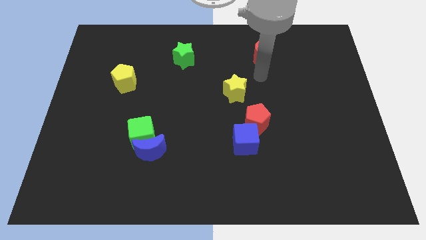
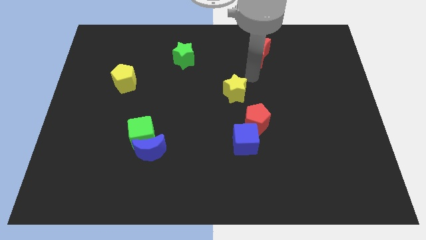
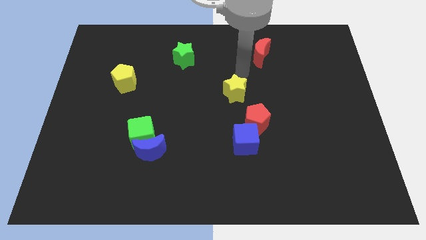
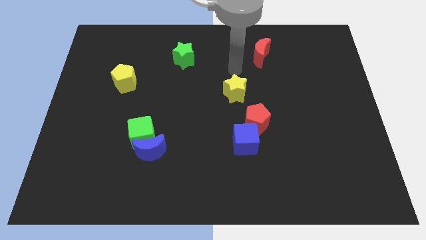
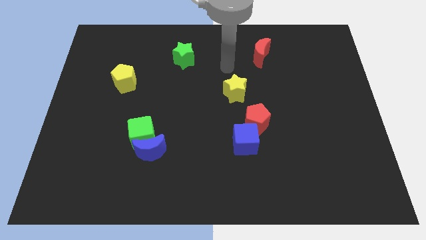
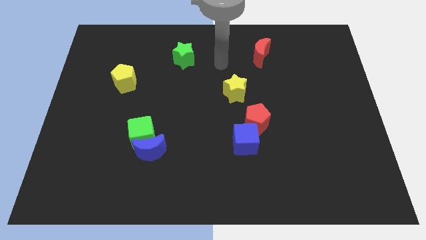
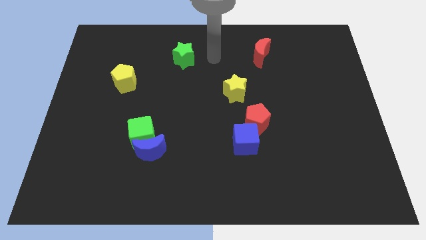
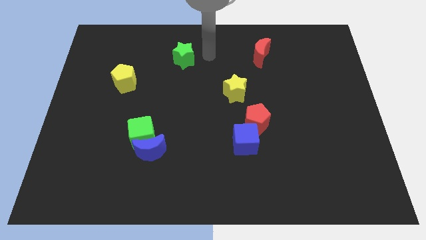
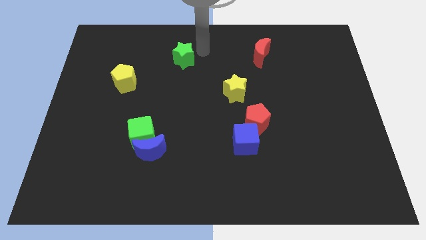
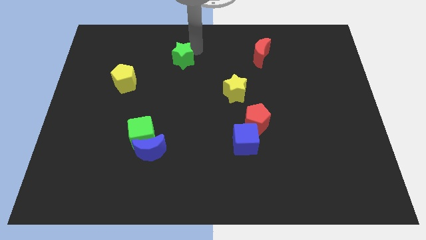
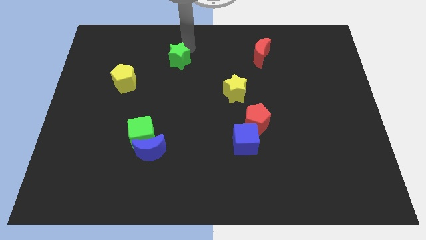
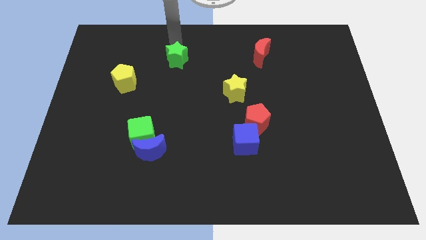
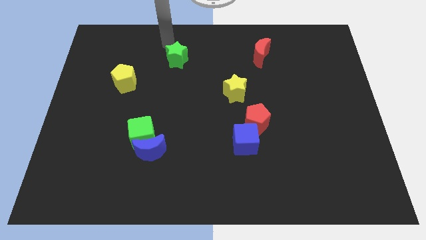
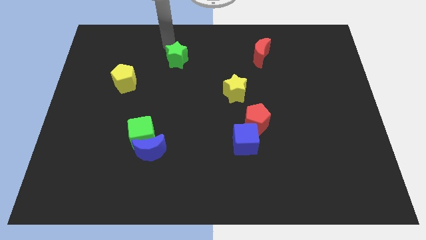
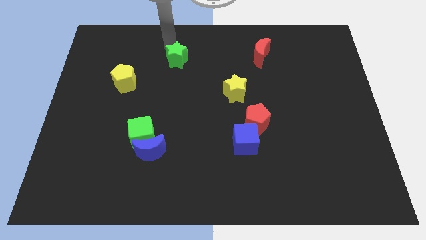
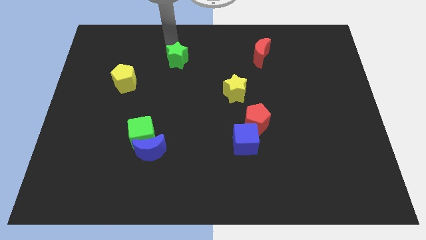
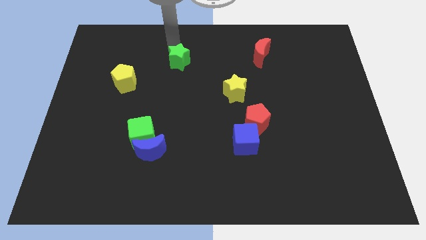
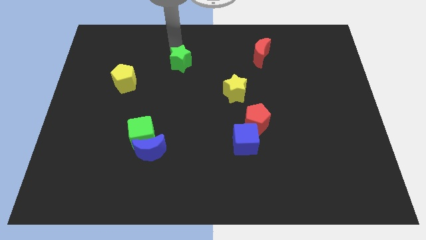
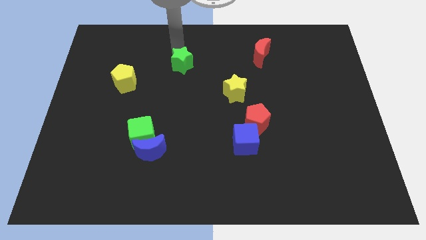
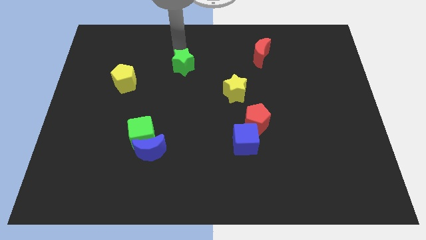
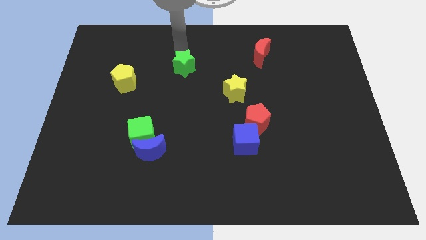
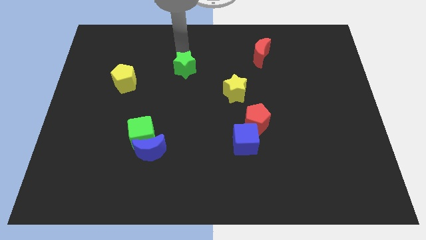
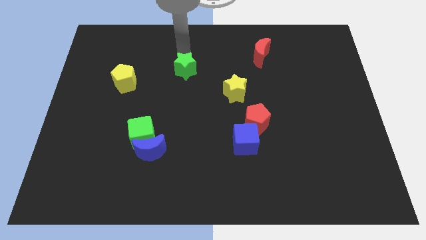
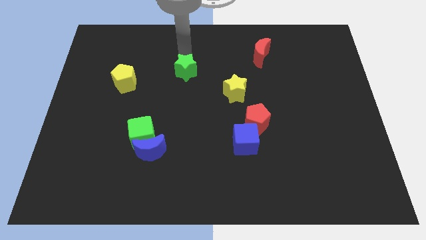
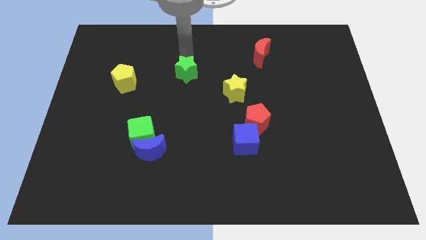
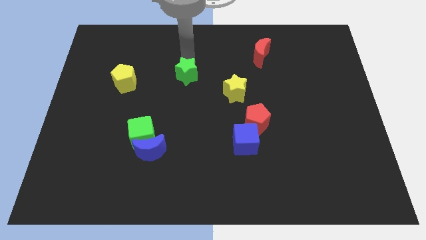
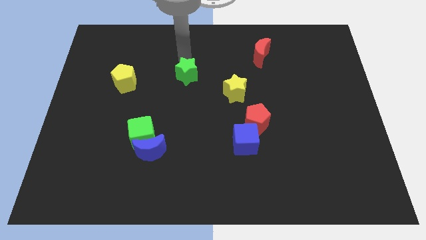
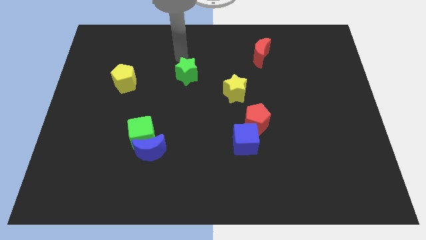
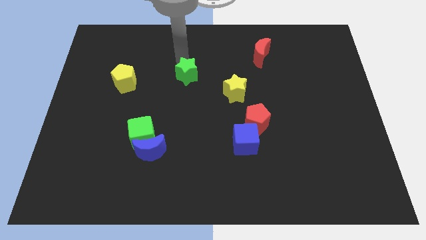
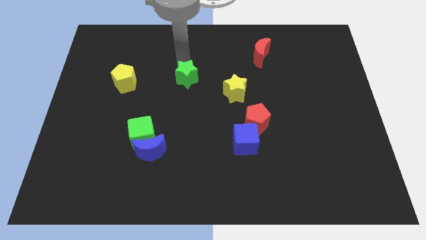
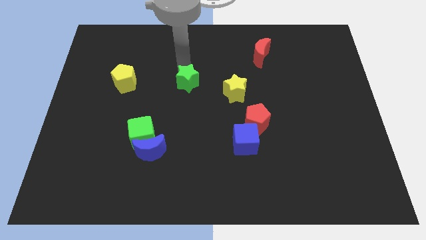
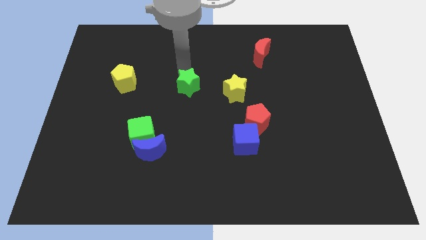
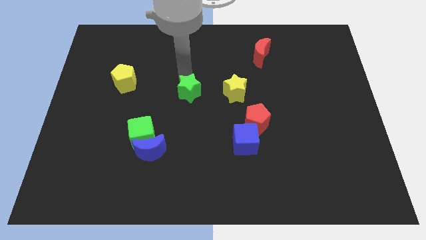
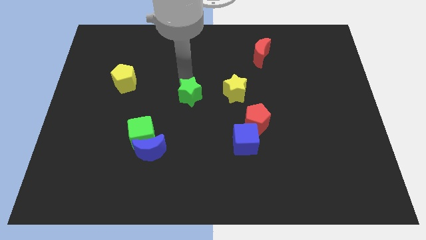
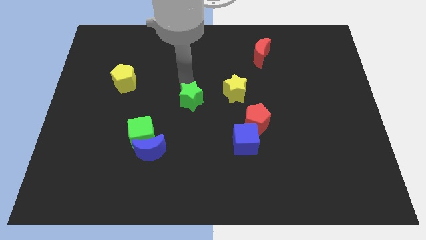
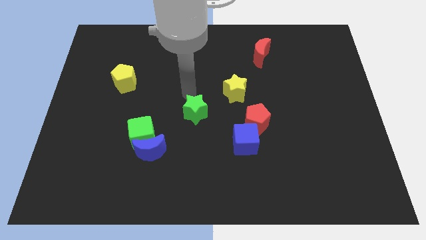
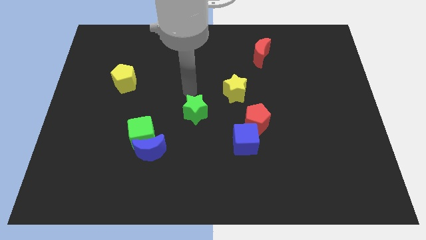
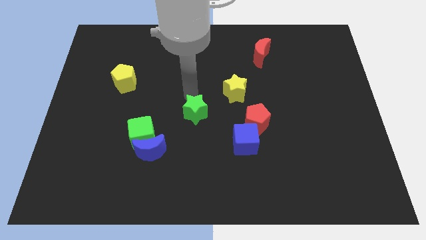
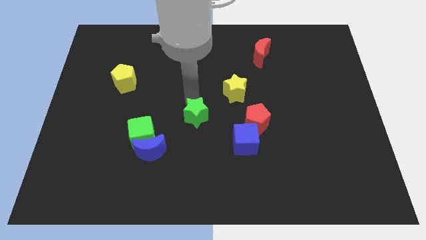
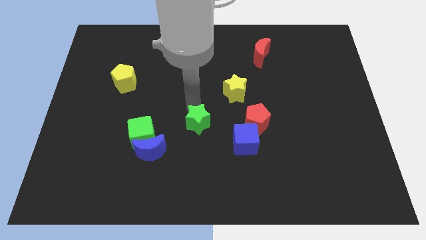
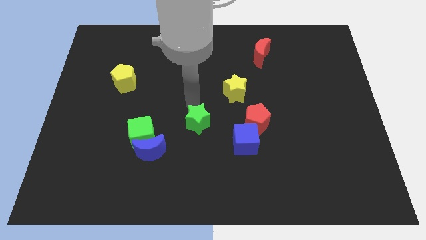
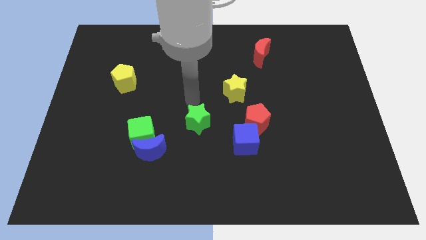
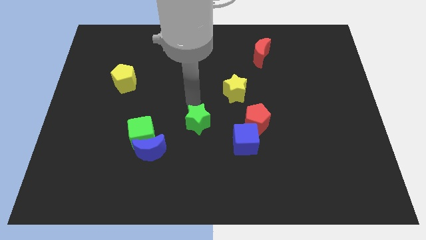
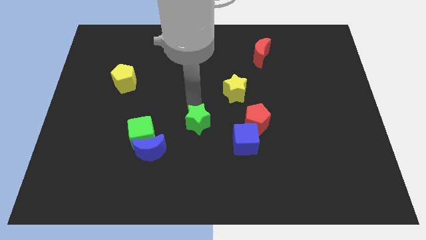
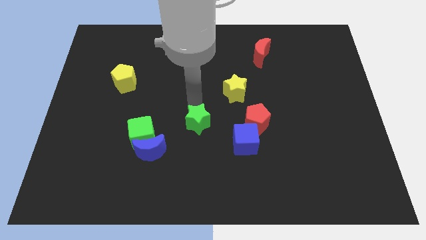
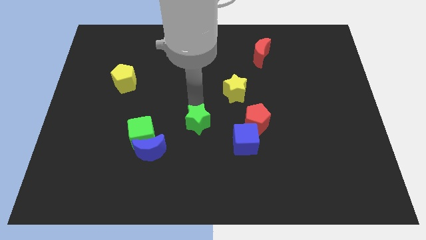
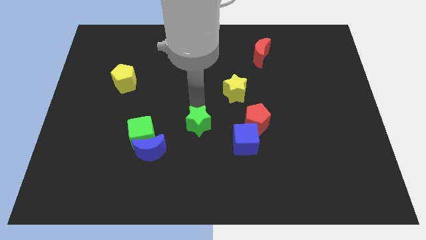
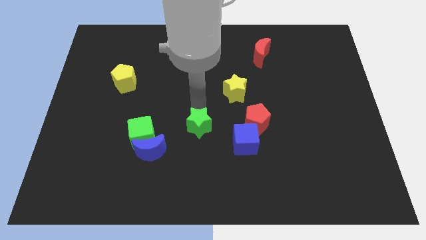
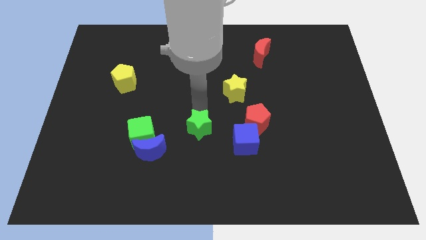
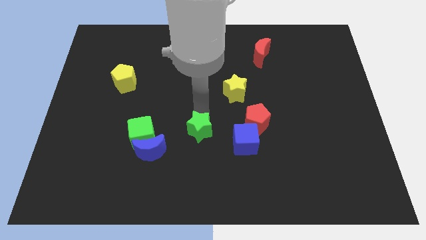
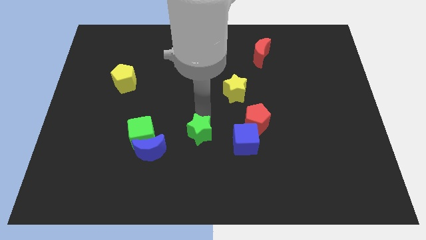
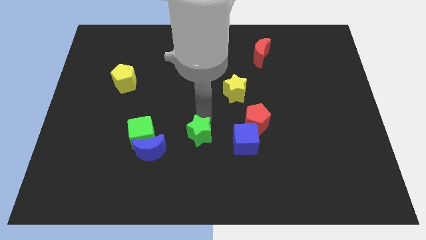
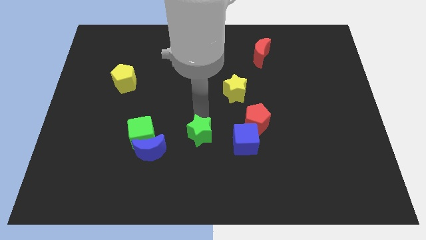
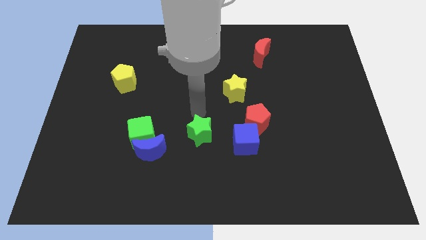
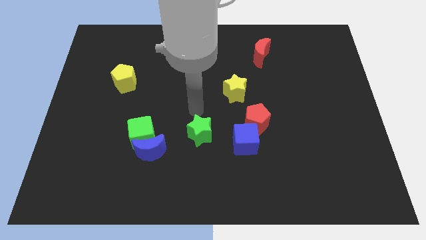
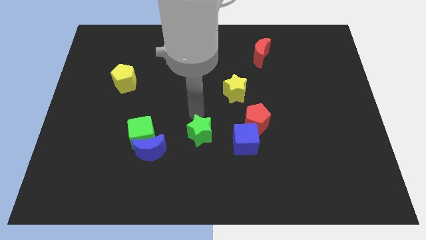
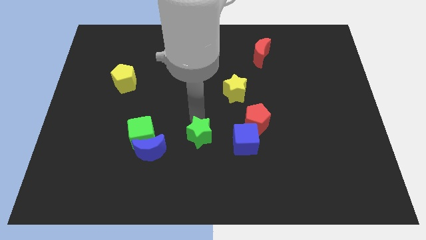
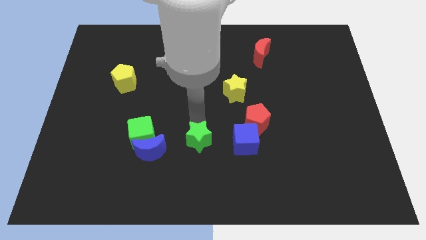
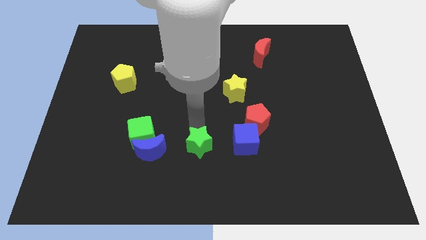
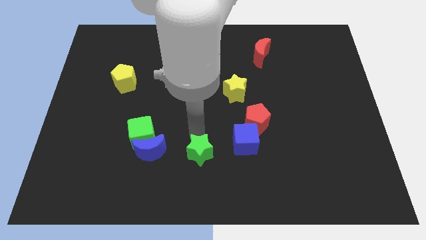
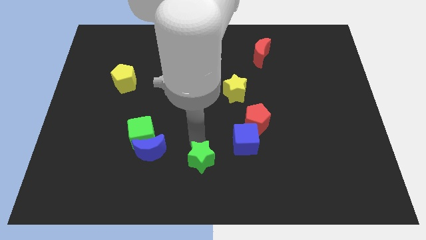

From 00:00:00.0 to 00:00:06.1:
put the green star to the bottom

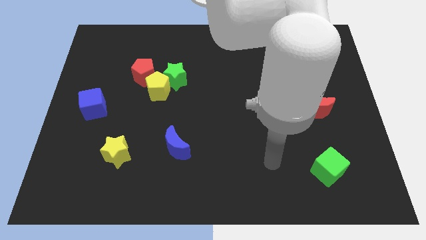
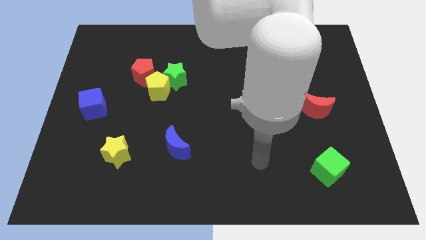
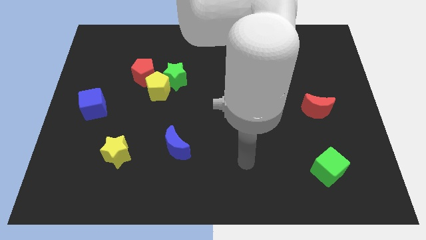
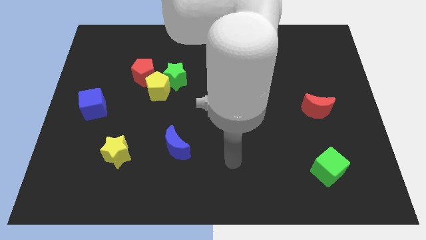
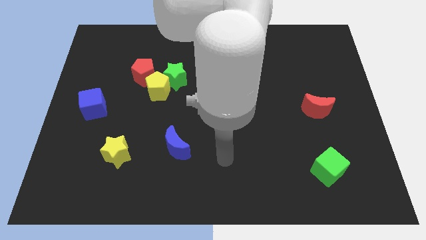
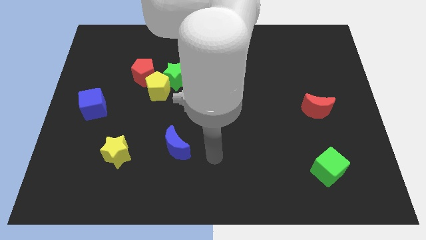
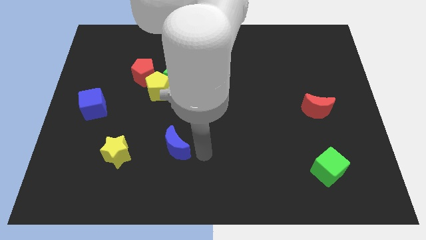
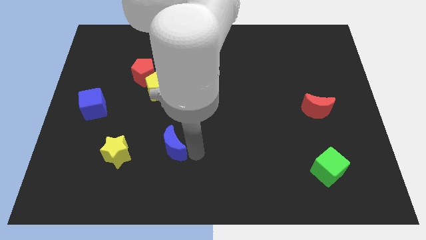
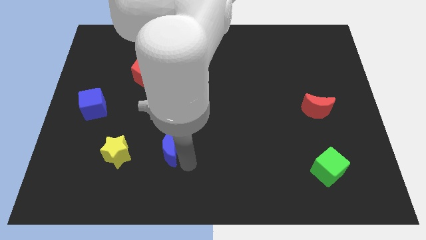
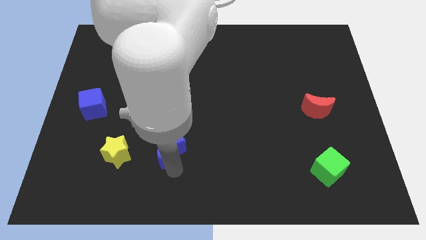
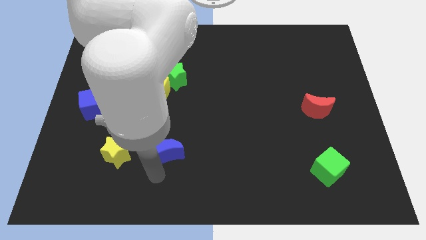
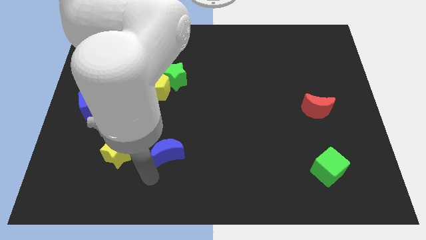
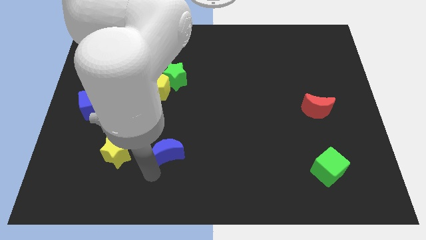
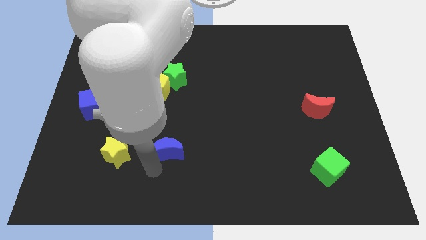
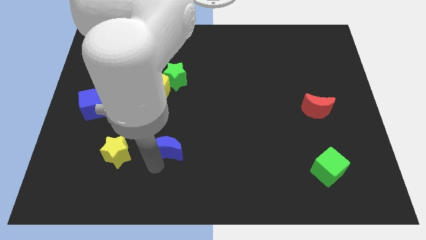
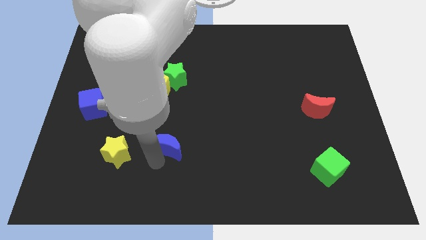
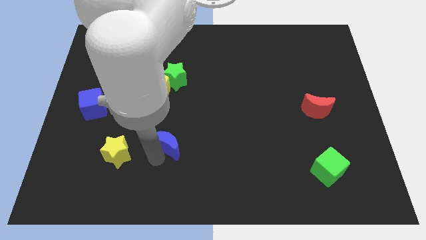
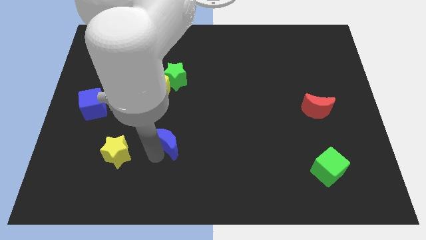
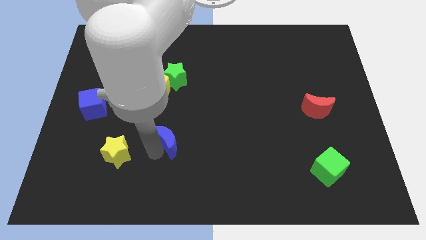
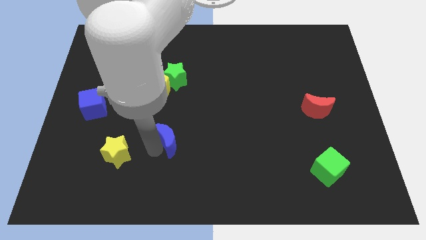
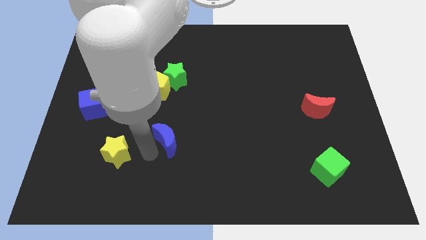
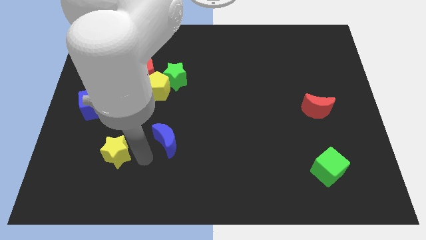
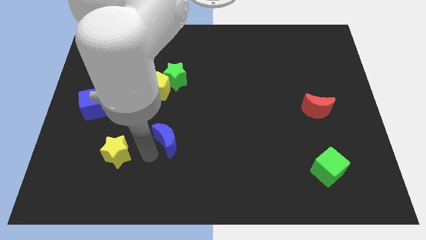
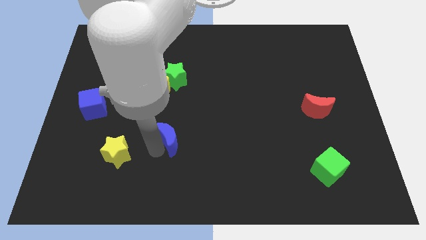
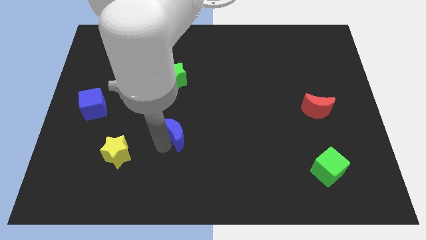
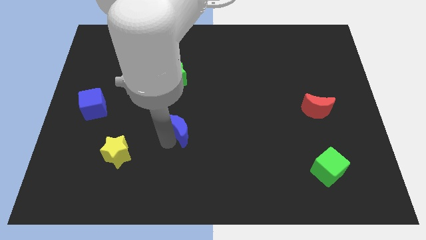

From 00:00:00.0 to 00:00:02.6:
push the blue moon to the center of the board
